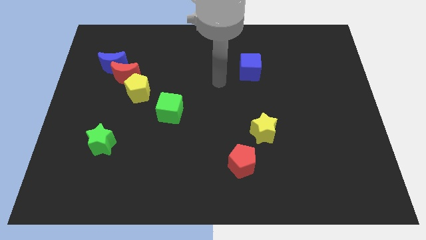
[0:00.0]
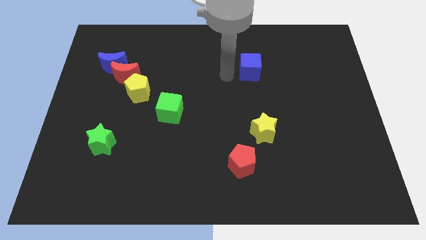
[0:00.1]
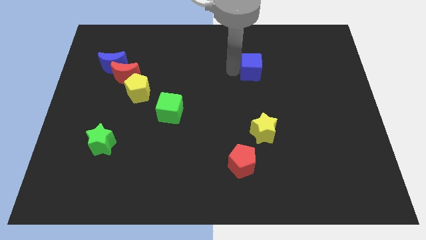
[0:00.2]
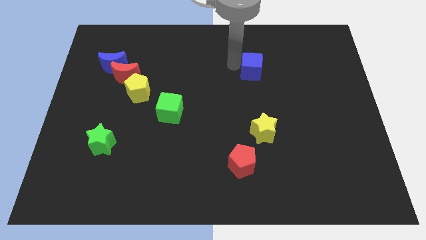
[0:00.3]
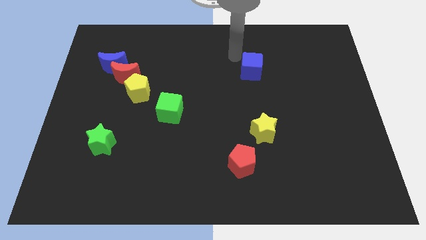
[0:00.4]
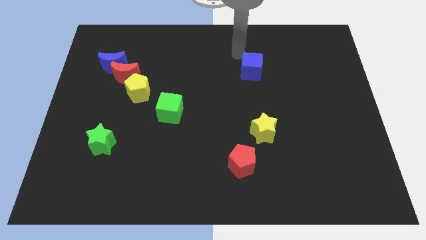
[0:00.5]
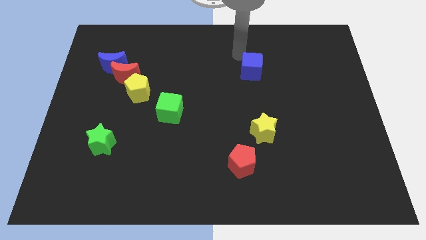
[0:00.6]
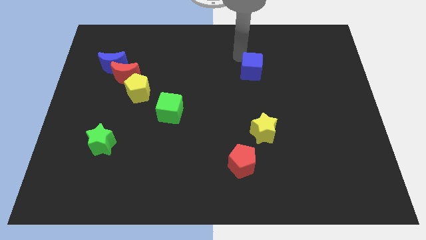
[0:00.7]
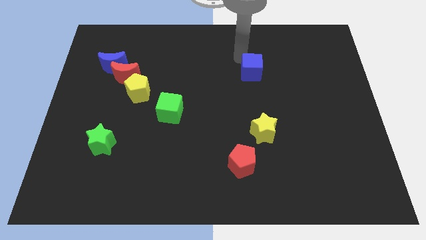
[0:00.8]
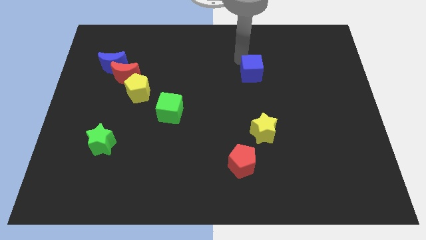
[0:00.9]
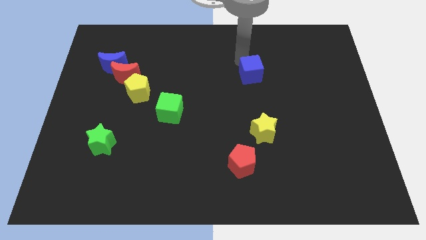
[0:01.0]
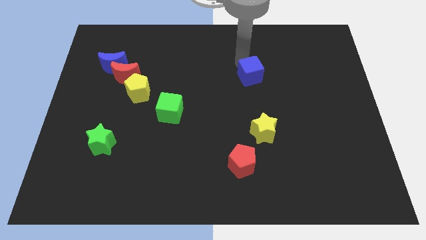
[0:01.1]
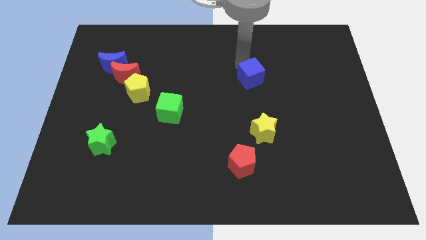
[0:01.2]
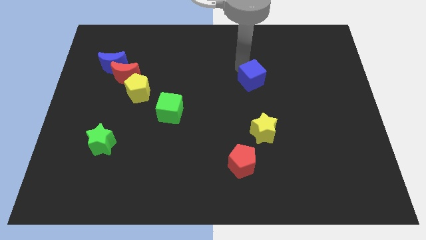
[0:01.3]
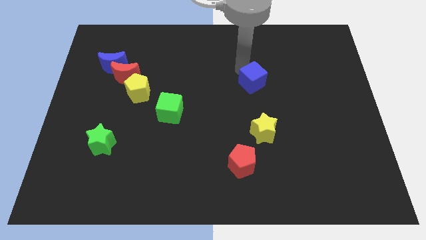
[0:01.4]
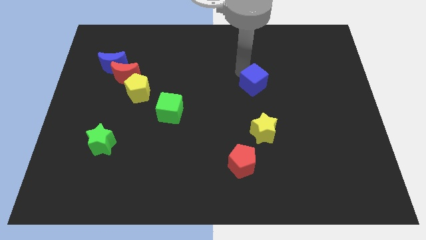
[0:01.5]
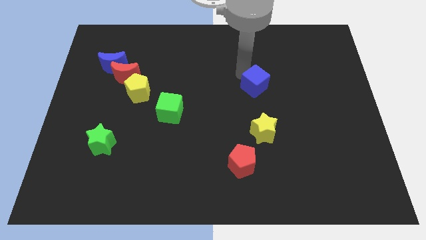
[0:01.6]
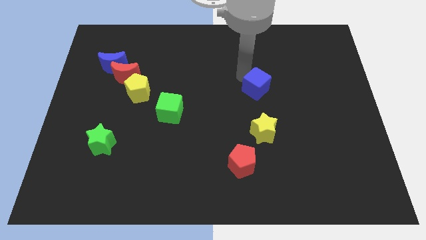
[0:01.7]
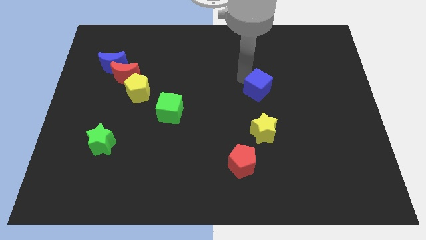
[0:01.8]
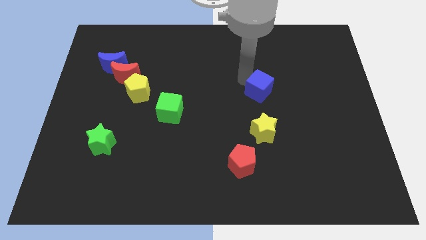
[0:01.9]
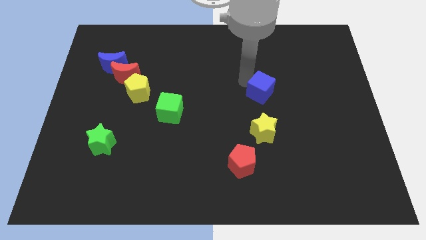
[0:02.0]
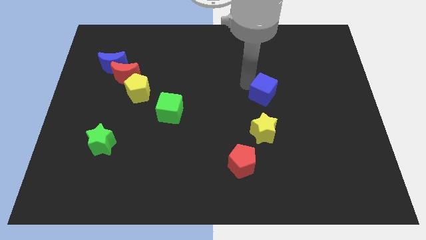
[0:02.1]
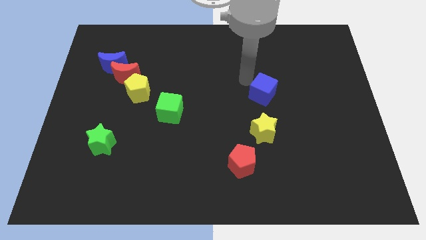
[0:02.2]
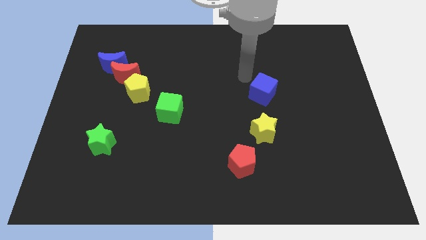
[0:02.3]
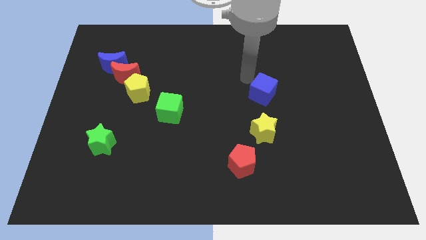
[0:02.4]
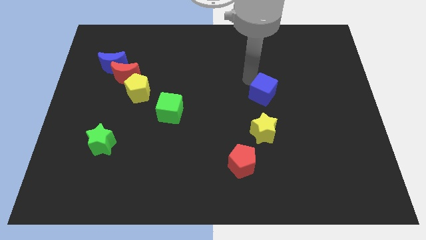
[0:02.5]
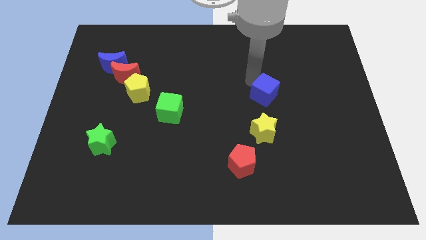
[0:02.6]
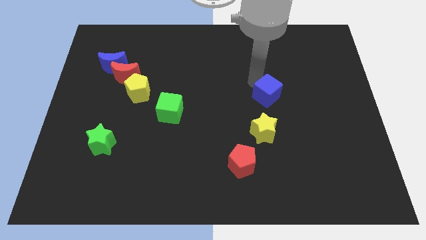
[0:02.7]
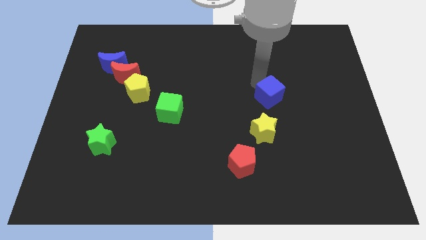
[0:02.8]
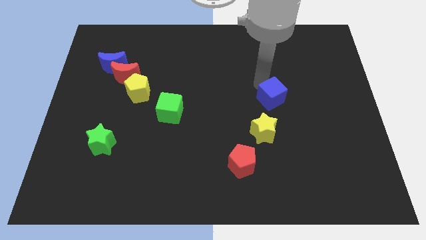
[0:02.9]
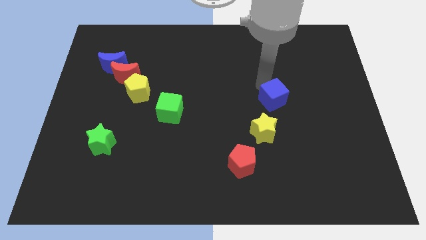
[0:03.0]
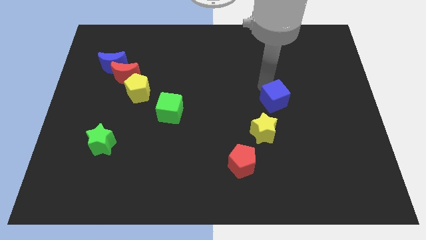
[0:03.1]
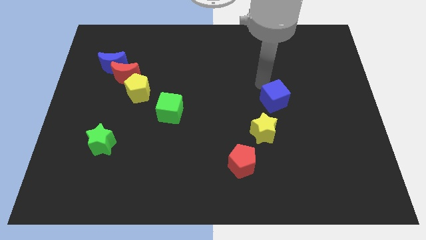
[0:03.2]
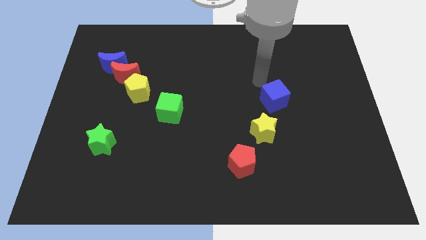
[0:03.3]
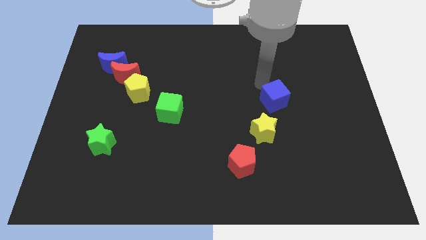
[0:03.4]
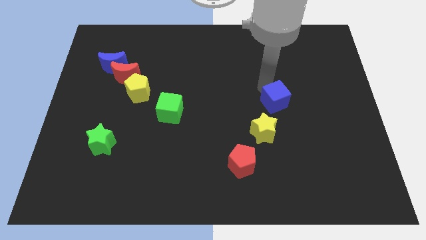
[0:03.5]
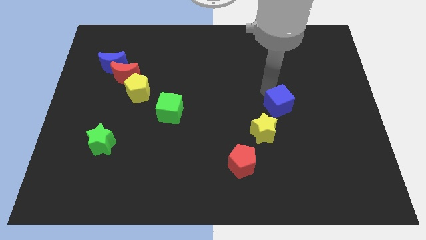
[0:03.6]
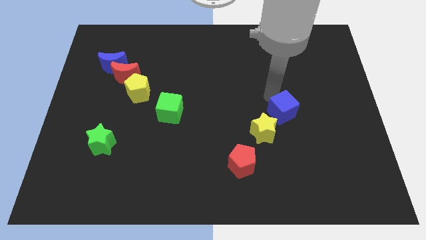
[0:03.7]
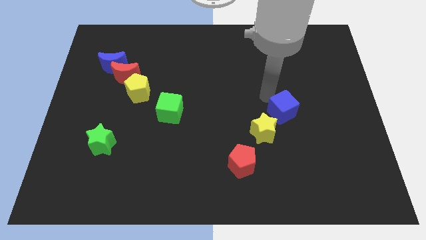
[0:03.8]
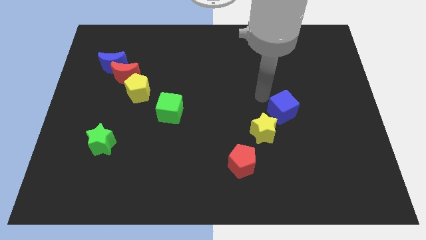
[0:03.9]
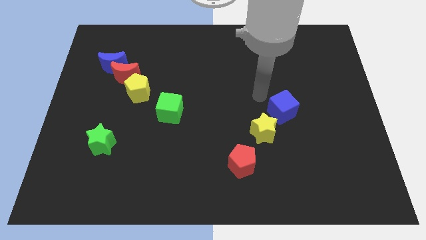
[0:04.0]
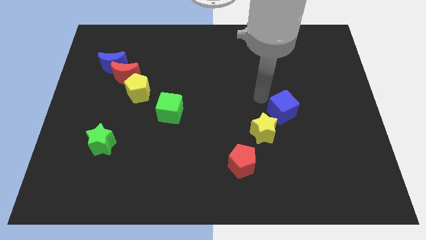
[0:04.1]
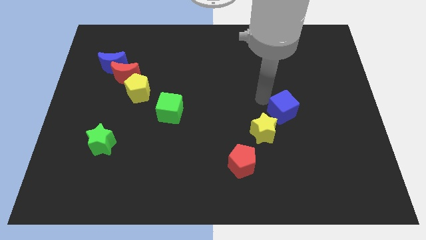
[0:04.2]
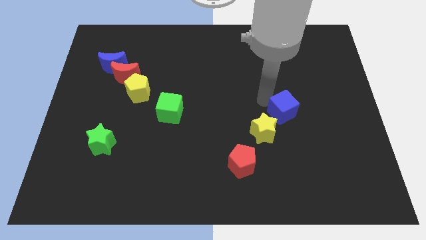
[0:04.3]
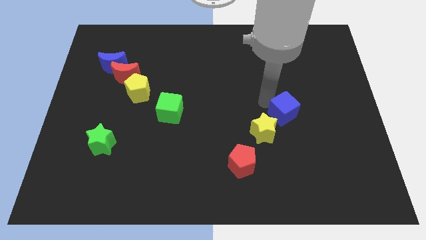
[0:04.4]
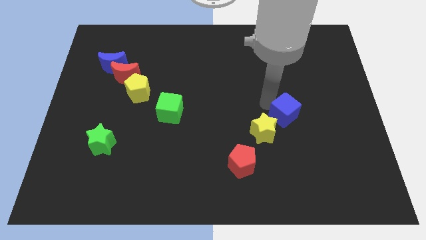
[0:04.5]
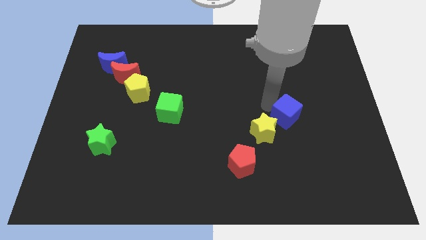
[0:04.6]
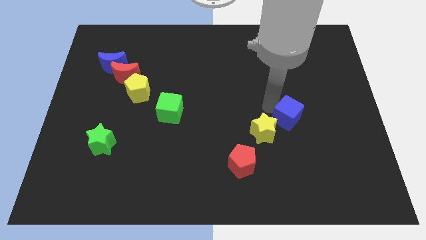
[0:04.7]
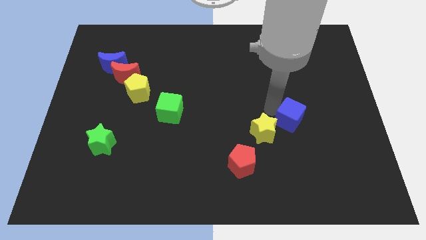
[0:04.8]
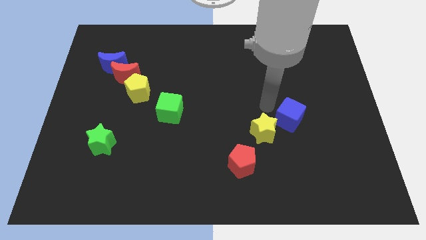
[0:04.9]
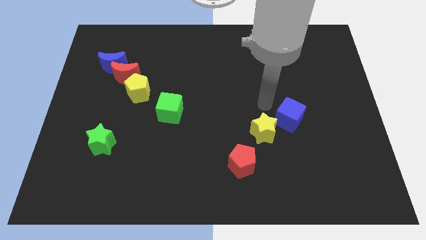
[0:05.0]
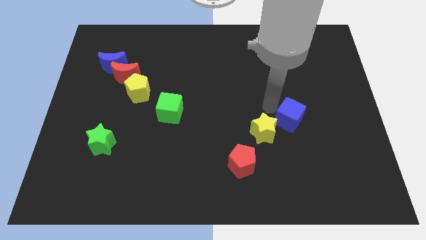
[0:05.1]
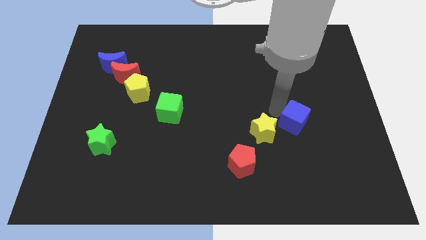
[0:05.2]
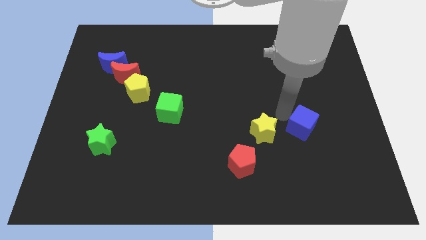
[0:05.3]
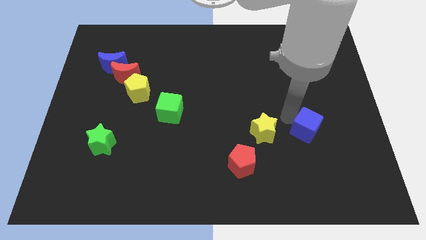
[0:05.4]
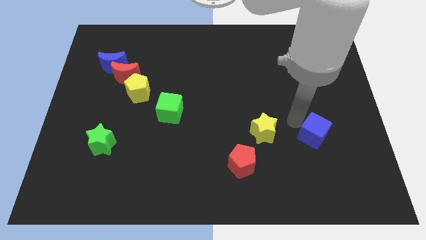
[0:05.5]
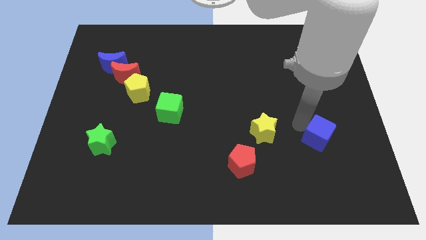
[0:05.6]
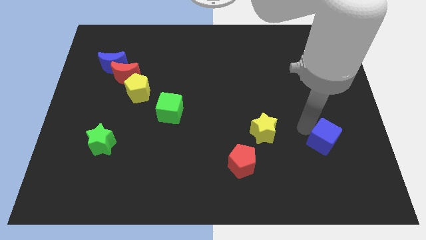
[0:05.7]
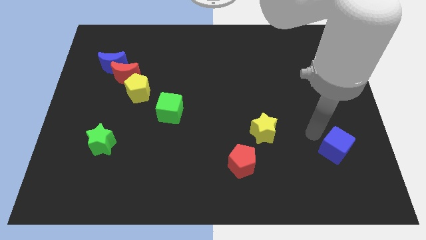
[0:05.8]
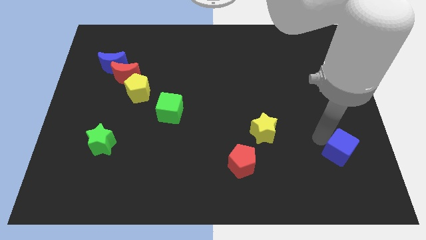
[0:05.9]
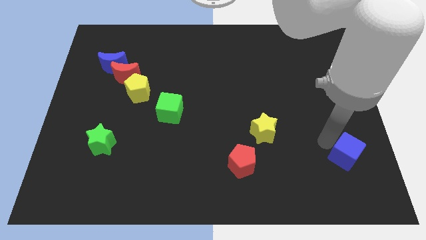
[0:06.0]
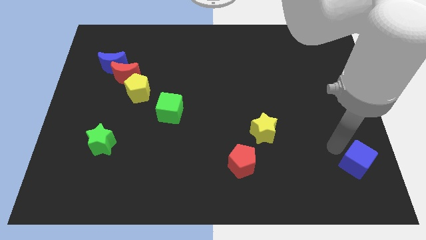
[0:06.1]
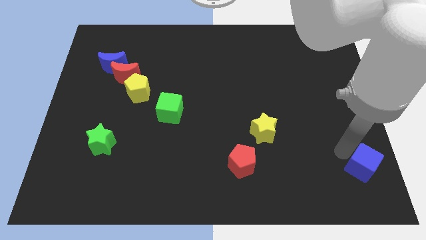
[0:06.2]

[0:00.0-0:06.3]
put the blue cube to the bottom right corner
